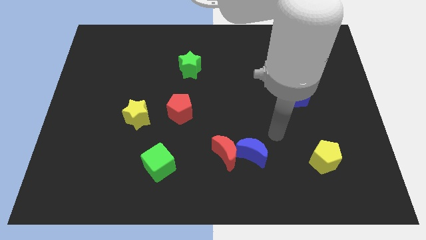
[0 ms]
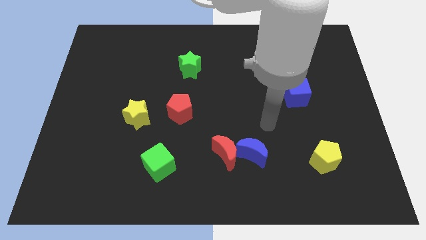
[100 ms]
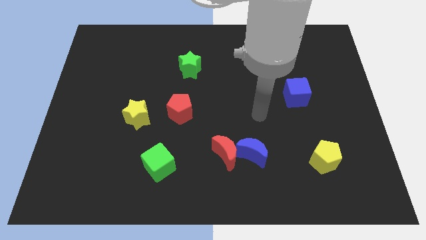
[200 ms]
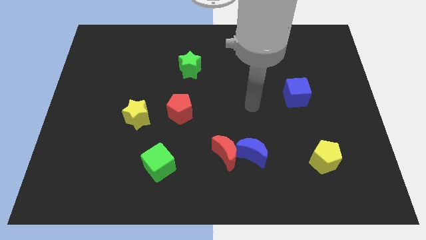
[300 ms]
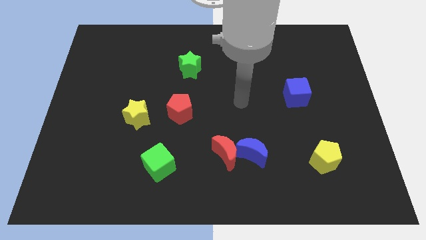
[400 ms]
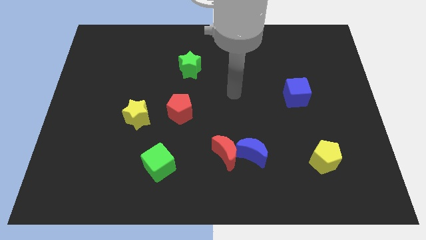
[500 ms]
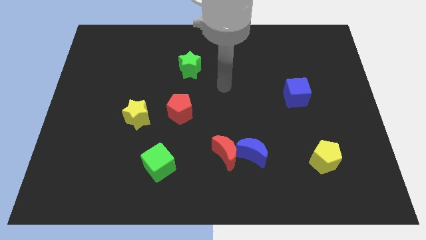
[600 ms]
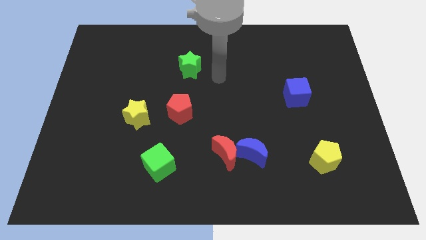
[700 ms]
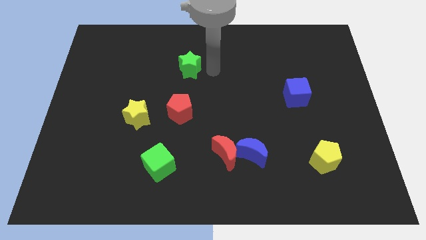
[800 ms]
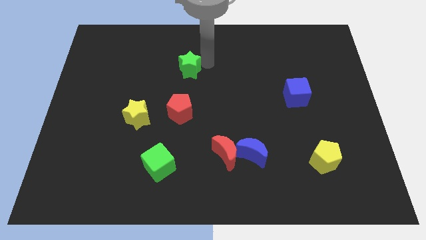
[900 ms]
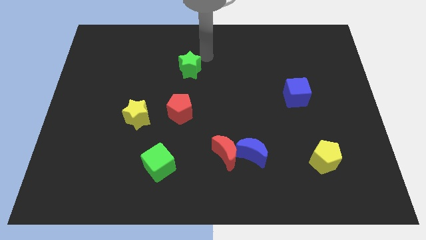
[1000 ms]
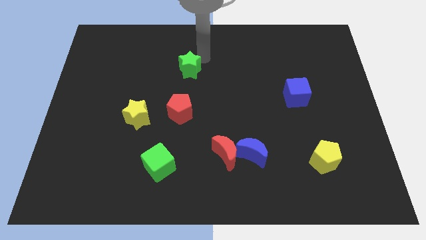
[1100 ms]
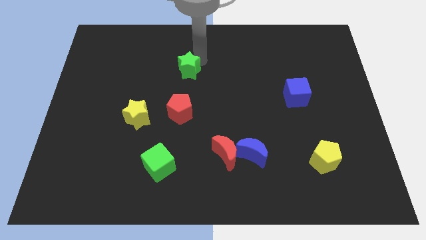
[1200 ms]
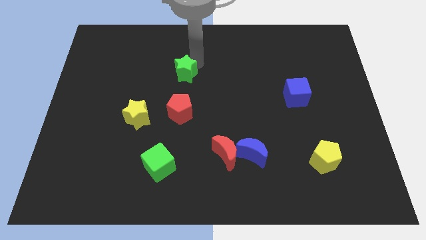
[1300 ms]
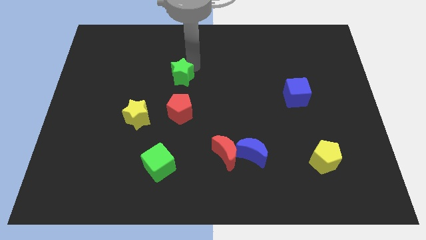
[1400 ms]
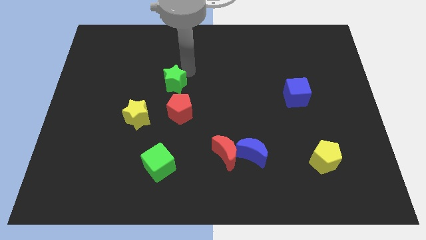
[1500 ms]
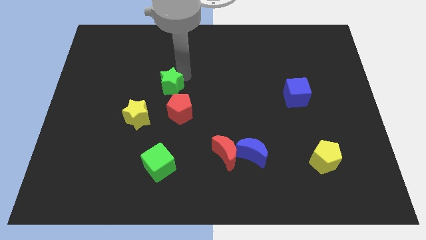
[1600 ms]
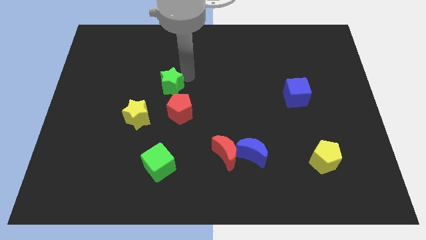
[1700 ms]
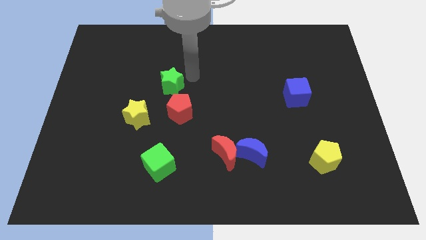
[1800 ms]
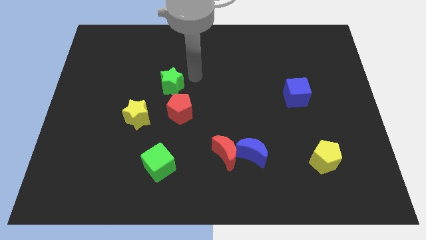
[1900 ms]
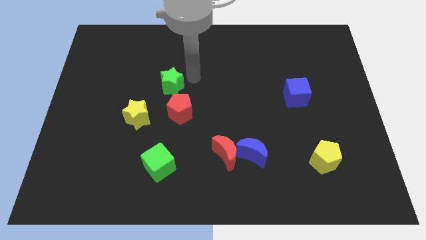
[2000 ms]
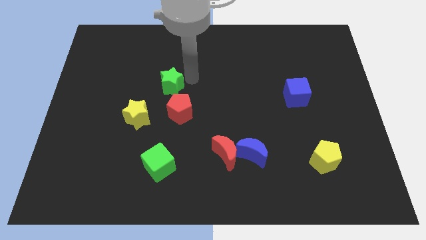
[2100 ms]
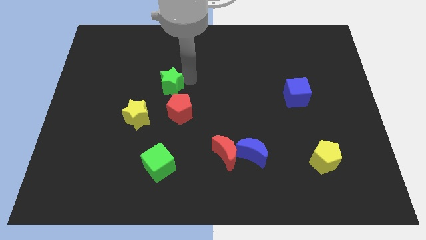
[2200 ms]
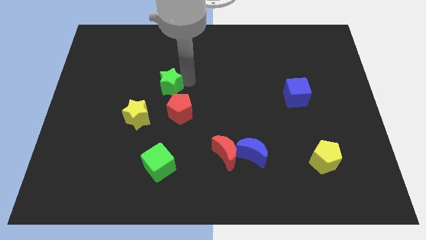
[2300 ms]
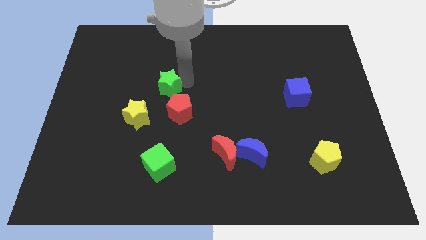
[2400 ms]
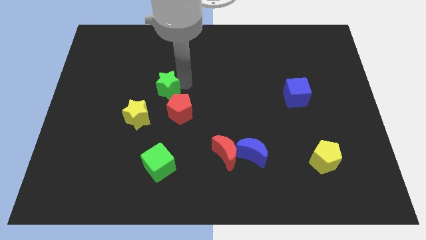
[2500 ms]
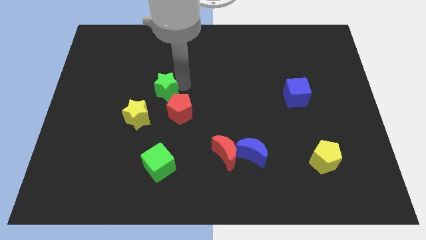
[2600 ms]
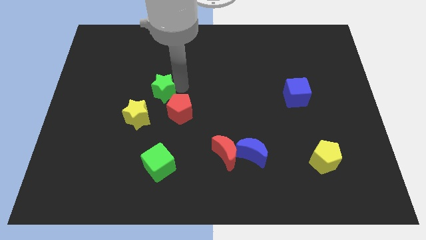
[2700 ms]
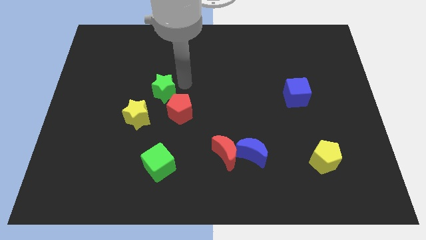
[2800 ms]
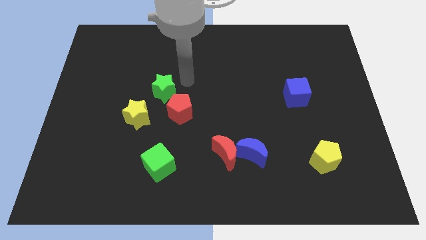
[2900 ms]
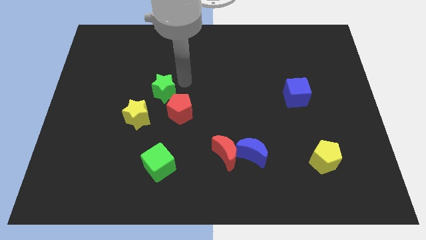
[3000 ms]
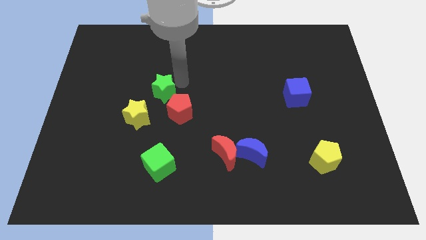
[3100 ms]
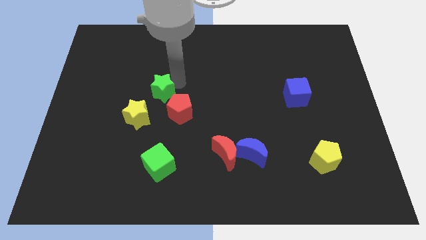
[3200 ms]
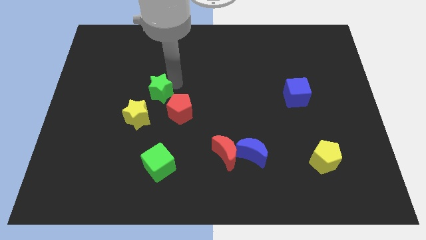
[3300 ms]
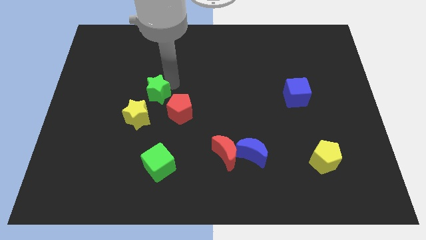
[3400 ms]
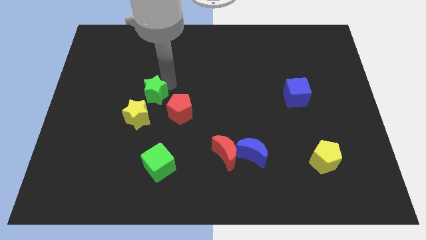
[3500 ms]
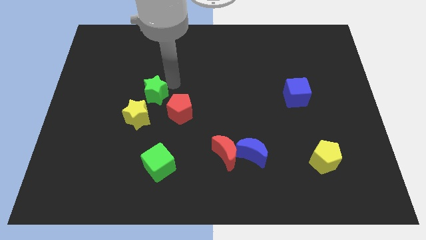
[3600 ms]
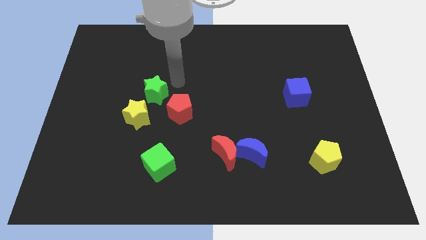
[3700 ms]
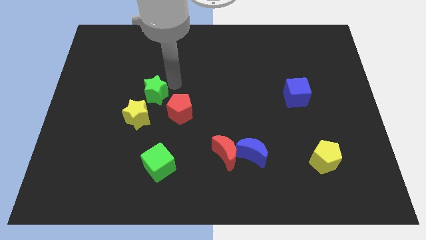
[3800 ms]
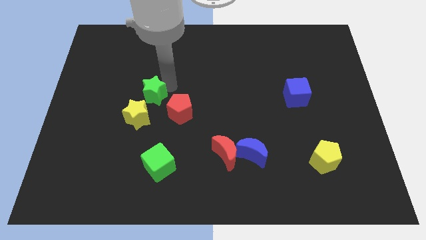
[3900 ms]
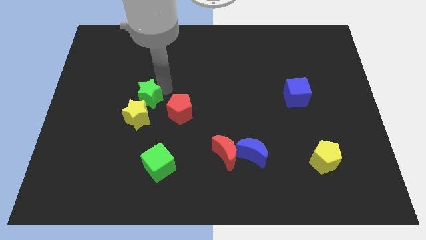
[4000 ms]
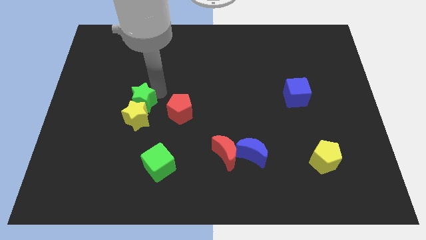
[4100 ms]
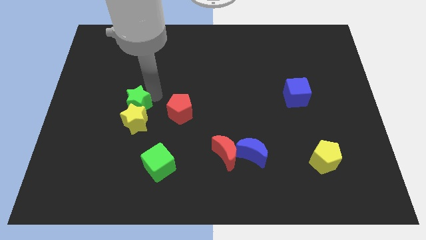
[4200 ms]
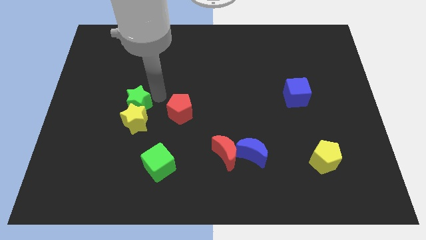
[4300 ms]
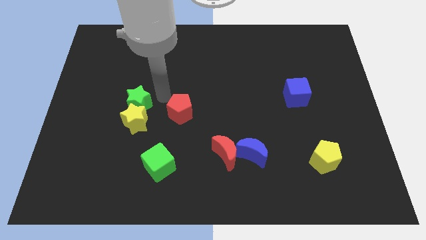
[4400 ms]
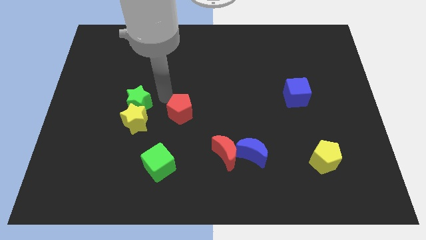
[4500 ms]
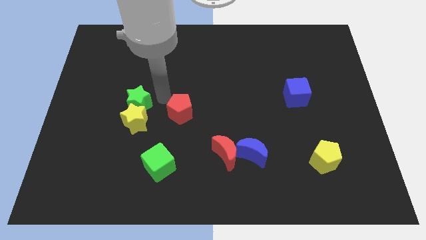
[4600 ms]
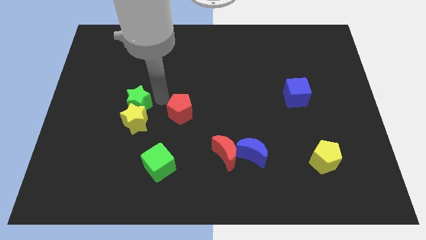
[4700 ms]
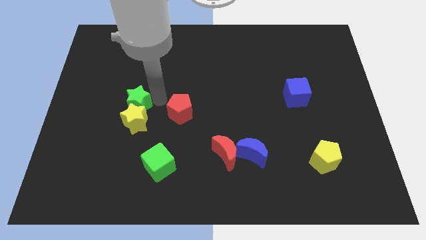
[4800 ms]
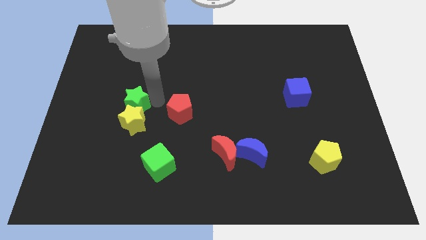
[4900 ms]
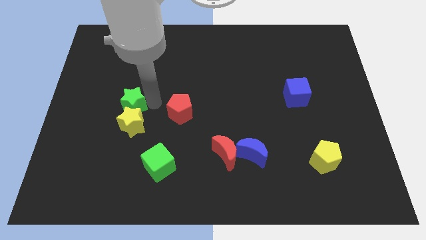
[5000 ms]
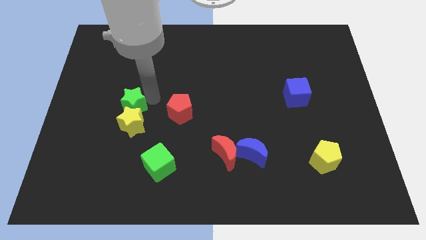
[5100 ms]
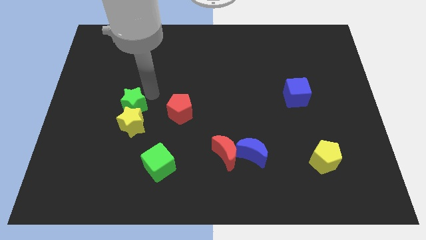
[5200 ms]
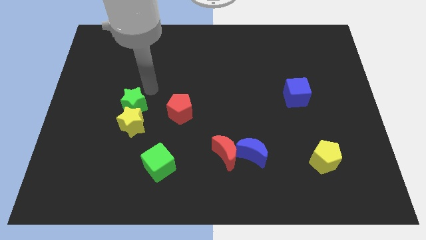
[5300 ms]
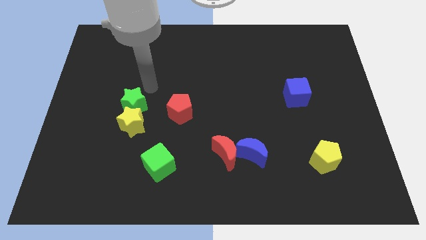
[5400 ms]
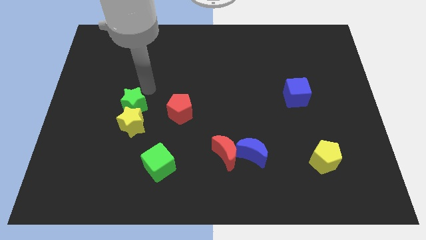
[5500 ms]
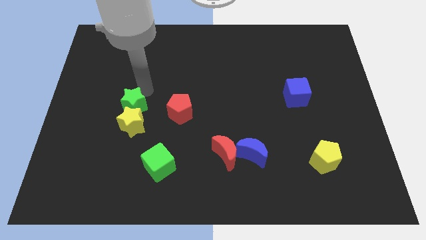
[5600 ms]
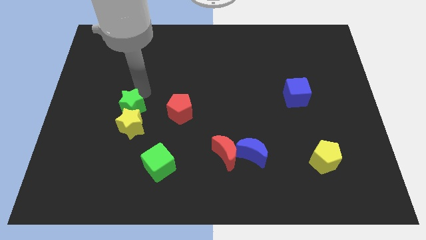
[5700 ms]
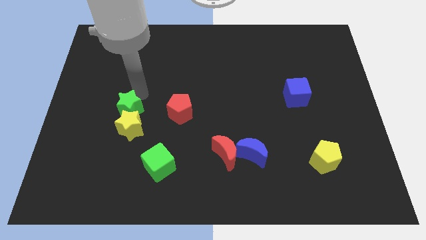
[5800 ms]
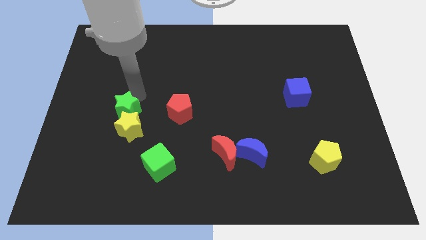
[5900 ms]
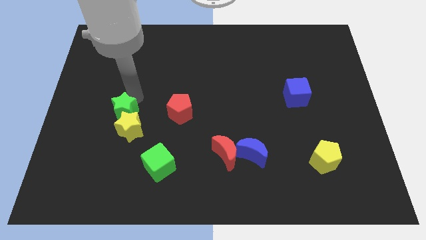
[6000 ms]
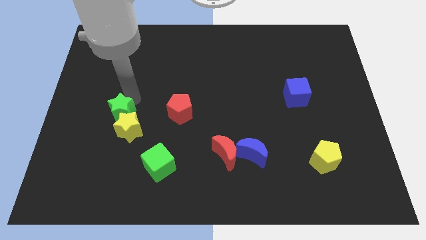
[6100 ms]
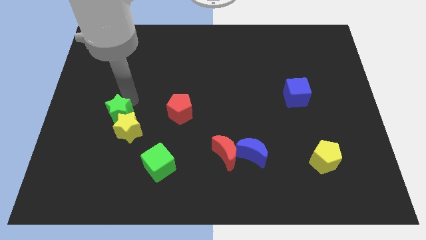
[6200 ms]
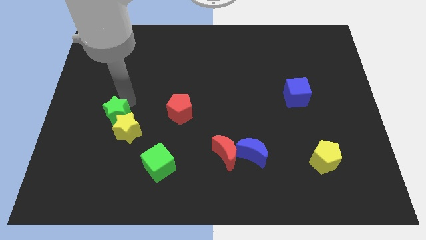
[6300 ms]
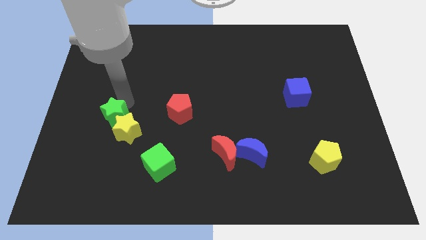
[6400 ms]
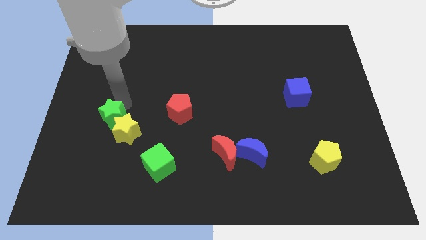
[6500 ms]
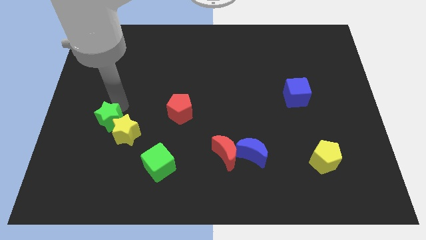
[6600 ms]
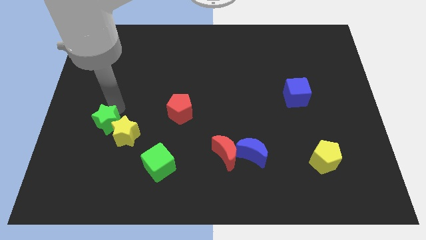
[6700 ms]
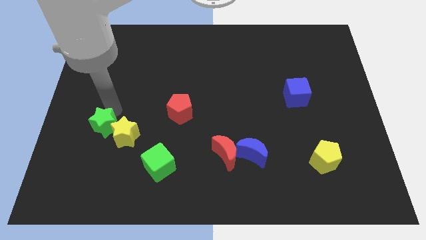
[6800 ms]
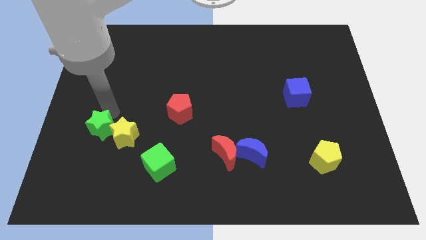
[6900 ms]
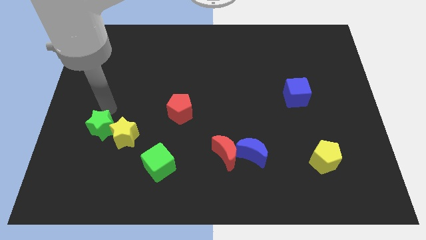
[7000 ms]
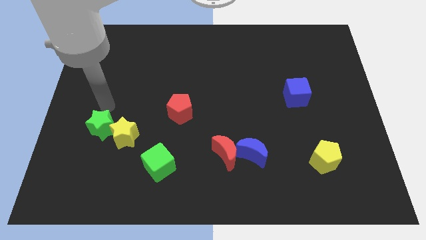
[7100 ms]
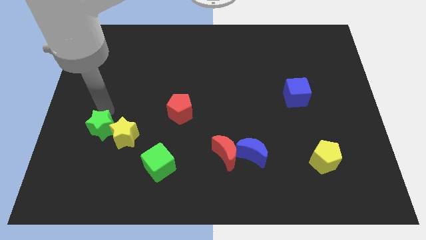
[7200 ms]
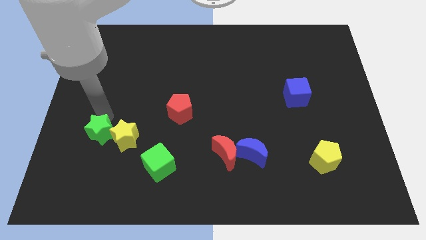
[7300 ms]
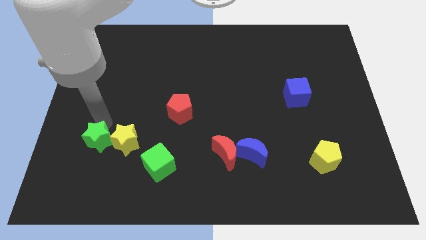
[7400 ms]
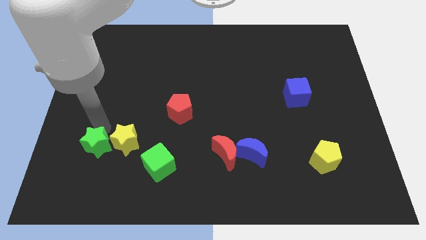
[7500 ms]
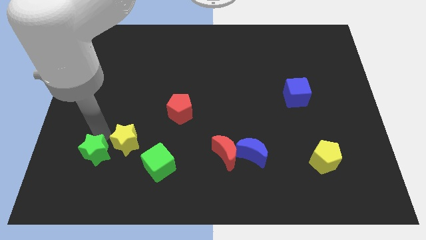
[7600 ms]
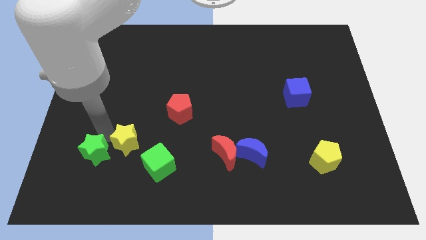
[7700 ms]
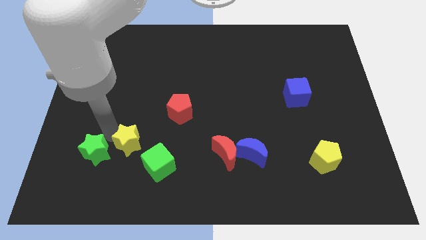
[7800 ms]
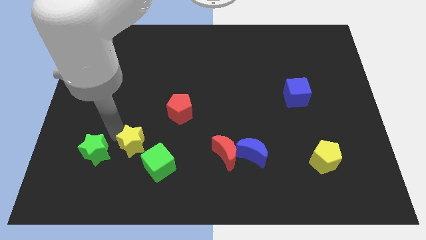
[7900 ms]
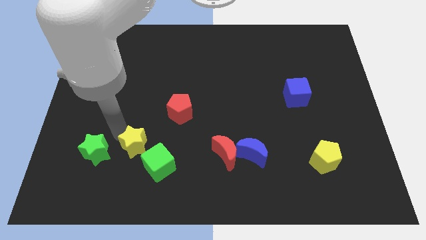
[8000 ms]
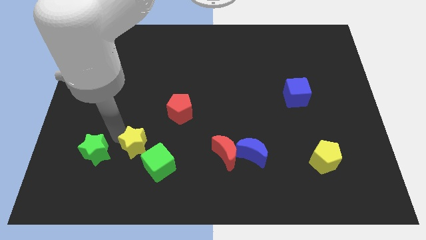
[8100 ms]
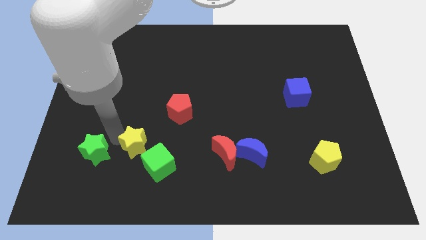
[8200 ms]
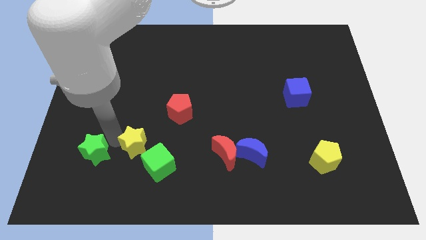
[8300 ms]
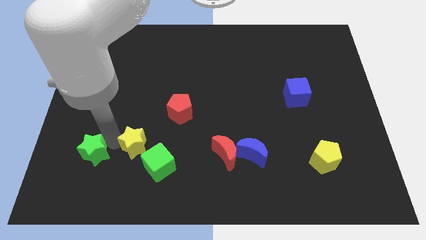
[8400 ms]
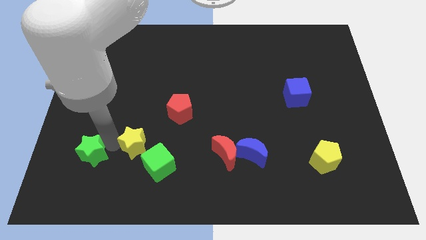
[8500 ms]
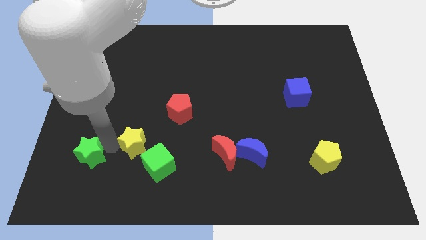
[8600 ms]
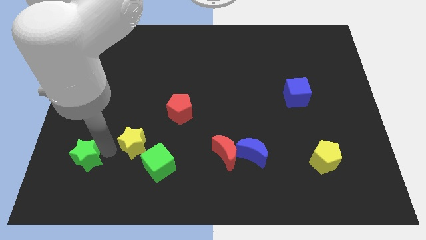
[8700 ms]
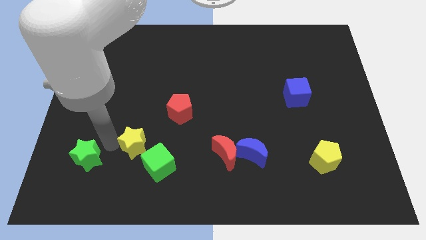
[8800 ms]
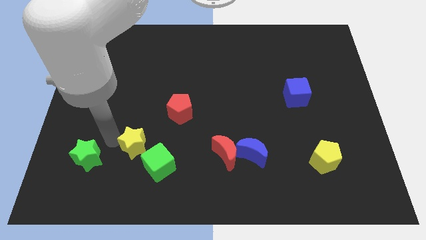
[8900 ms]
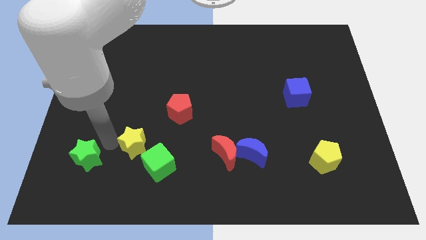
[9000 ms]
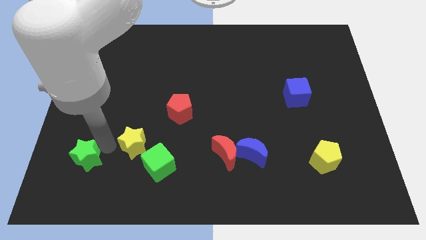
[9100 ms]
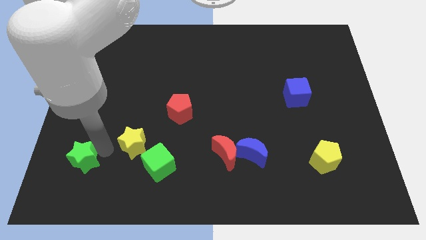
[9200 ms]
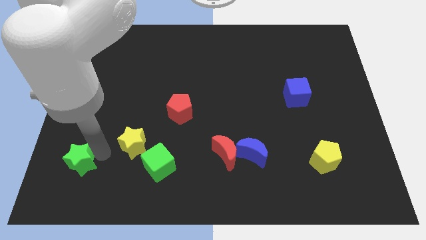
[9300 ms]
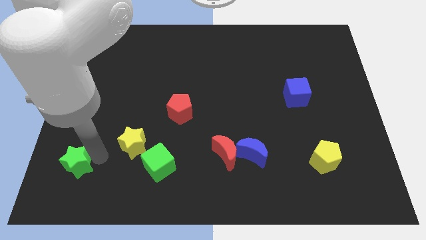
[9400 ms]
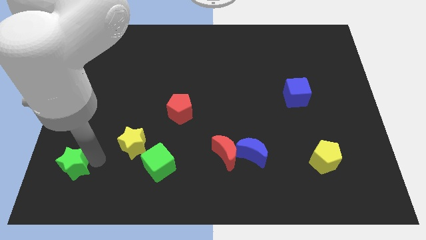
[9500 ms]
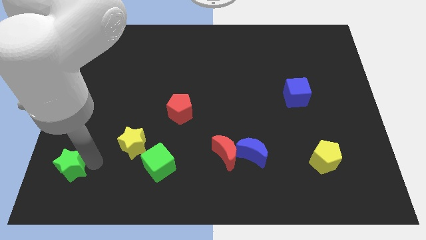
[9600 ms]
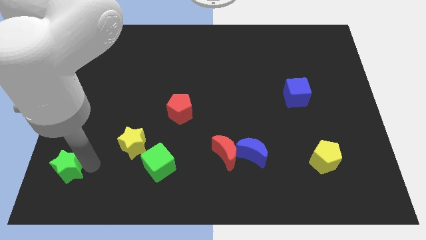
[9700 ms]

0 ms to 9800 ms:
push the green star to the bottom left corner
